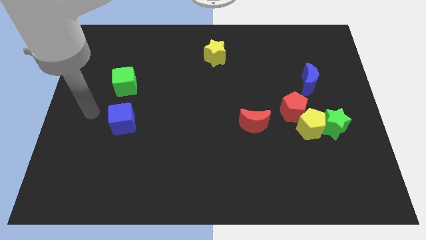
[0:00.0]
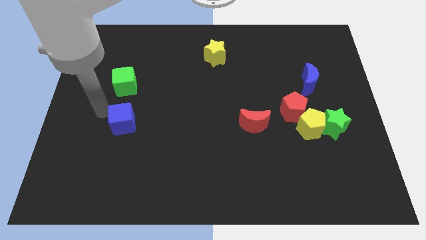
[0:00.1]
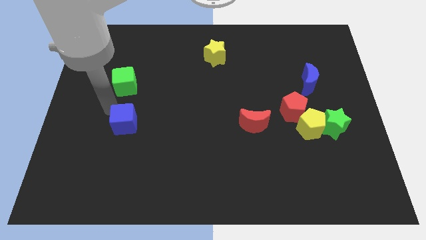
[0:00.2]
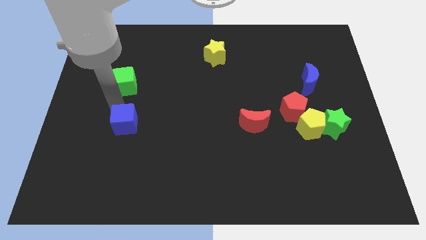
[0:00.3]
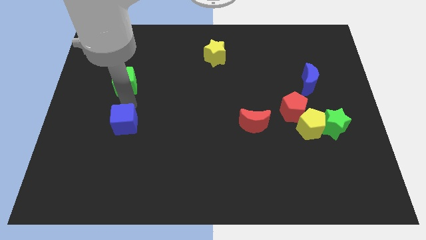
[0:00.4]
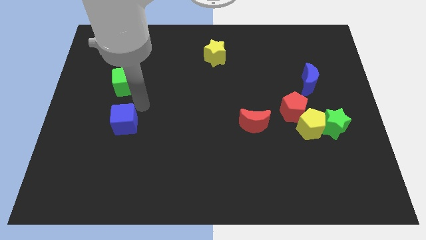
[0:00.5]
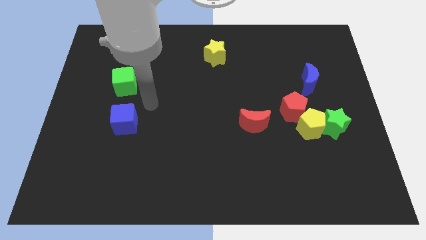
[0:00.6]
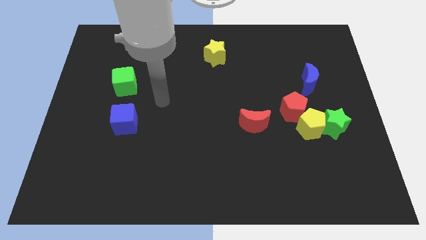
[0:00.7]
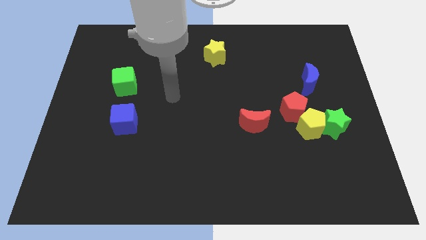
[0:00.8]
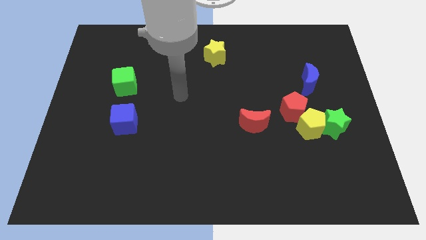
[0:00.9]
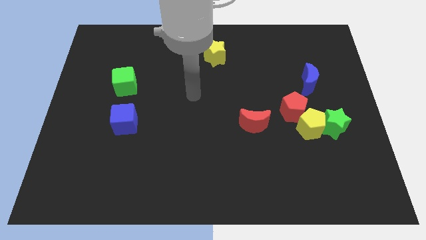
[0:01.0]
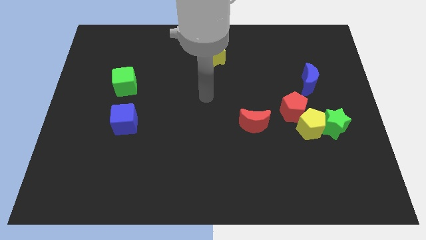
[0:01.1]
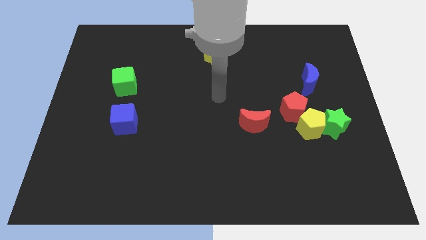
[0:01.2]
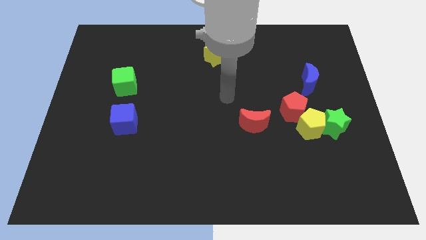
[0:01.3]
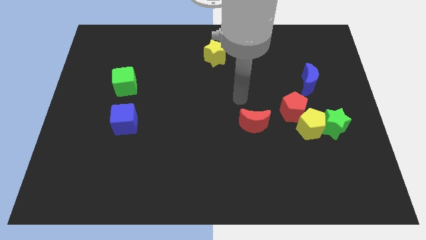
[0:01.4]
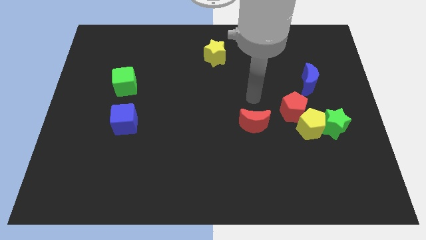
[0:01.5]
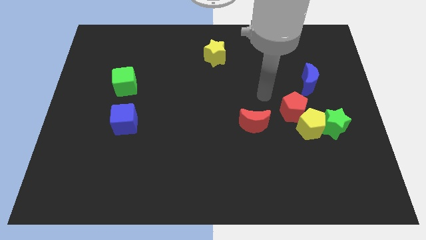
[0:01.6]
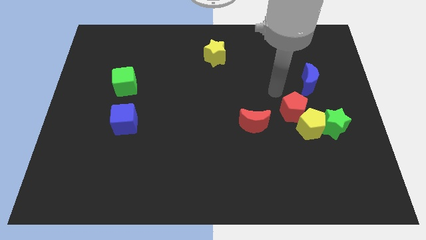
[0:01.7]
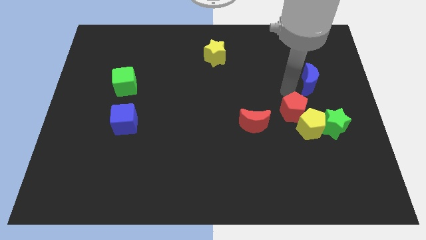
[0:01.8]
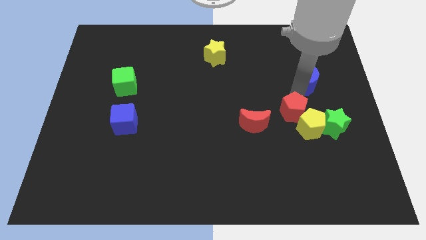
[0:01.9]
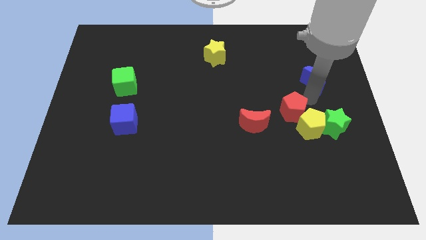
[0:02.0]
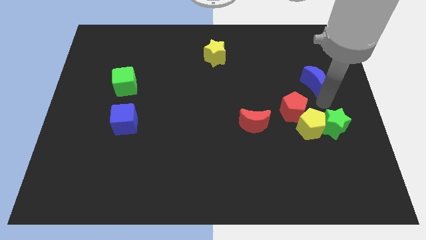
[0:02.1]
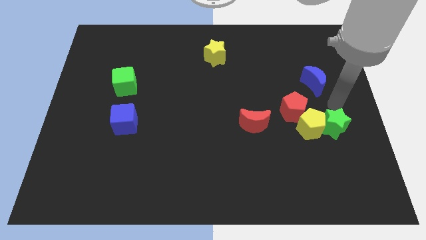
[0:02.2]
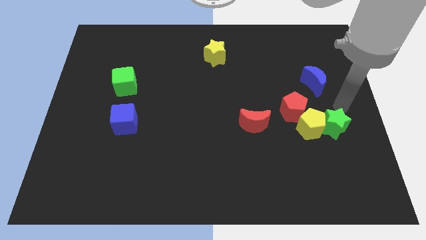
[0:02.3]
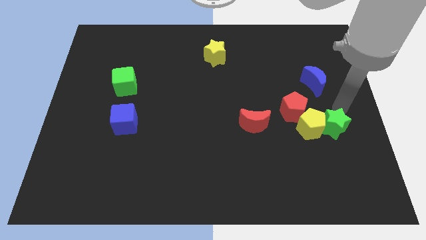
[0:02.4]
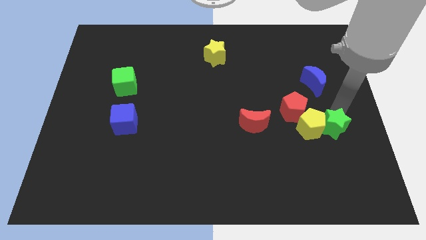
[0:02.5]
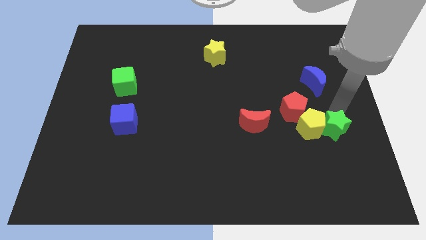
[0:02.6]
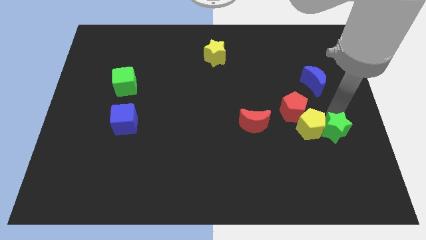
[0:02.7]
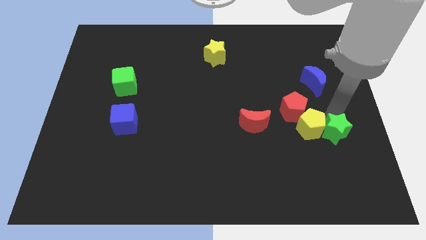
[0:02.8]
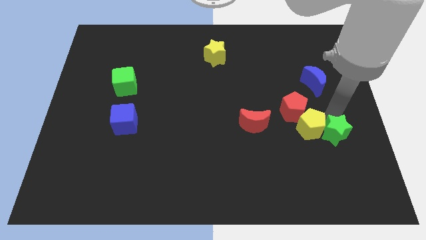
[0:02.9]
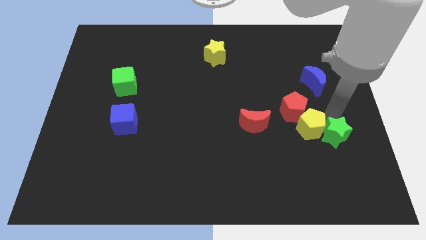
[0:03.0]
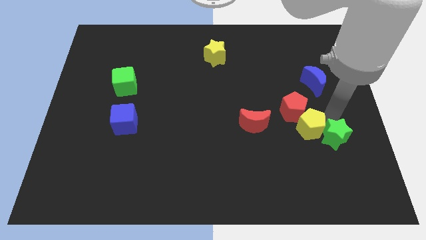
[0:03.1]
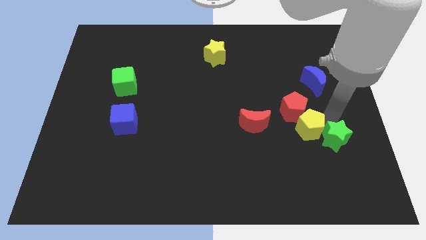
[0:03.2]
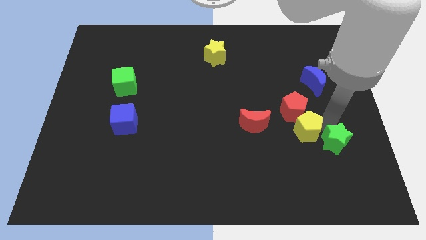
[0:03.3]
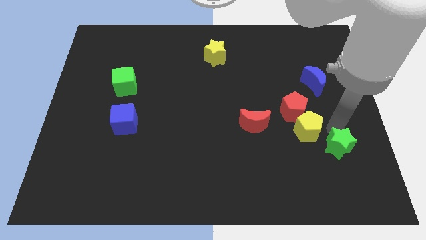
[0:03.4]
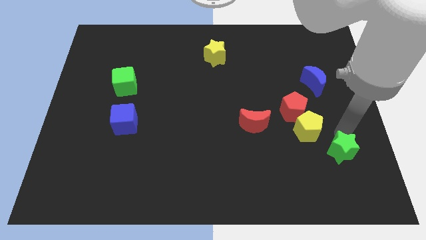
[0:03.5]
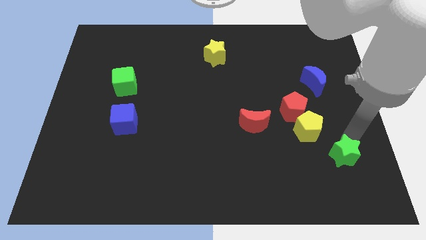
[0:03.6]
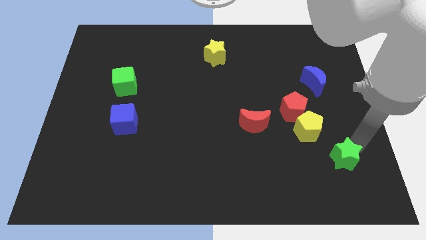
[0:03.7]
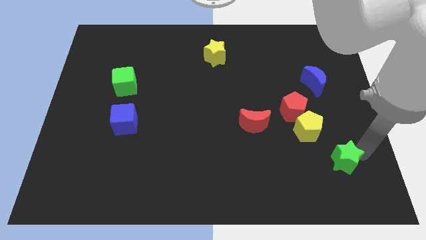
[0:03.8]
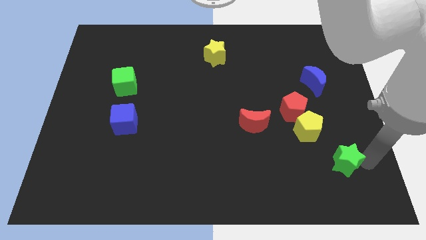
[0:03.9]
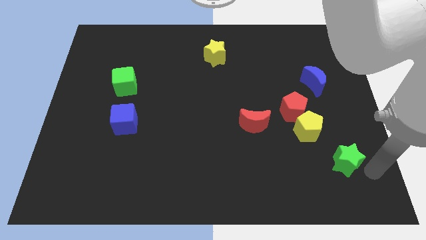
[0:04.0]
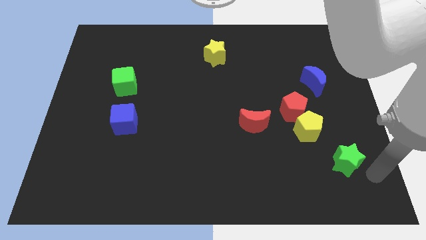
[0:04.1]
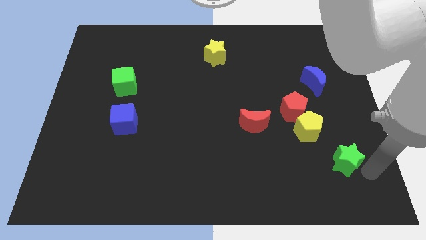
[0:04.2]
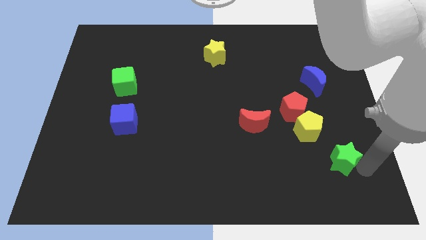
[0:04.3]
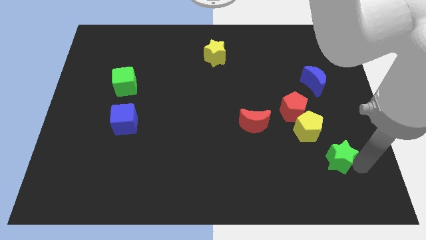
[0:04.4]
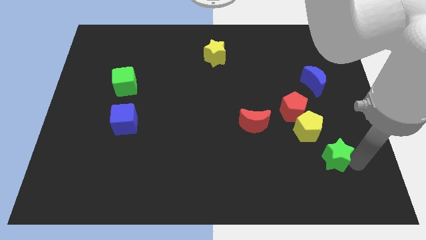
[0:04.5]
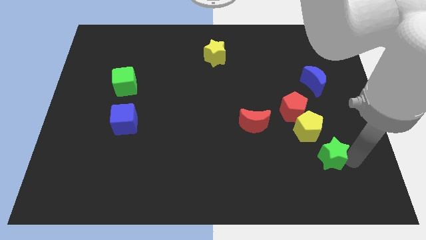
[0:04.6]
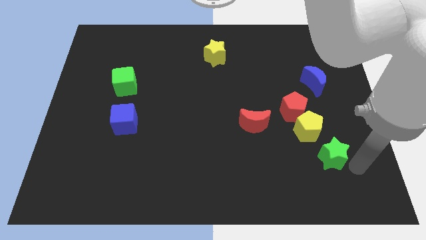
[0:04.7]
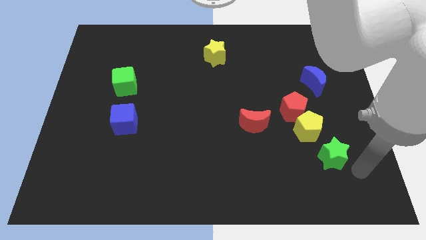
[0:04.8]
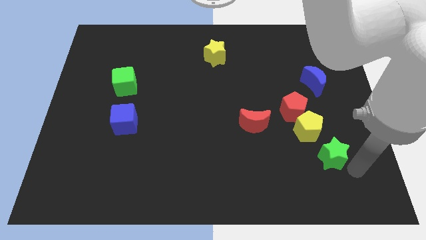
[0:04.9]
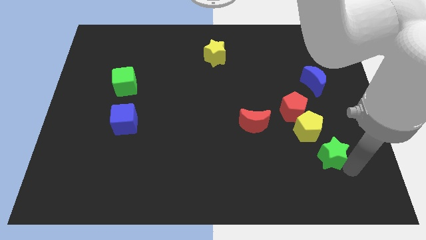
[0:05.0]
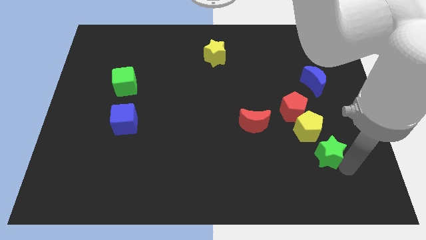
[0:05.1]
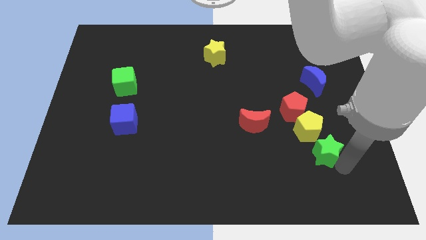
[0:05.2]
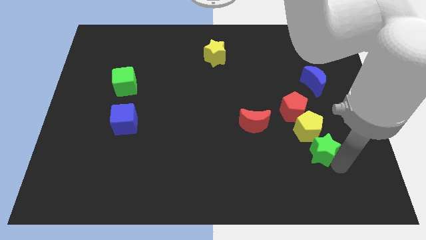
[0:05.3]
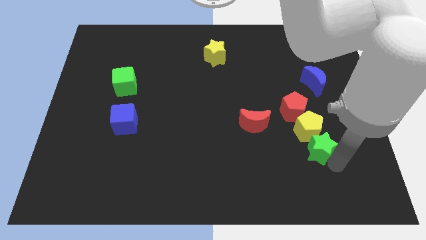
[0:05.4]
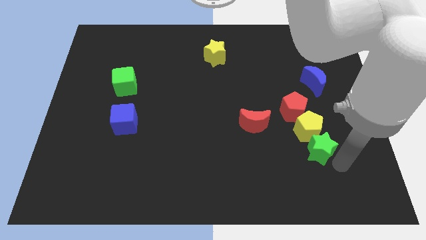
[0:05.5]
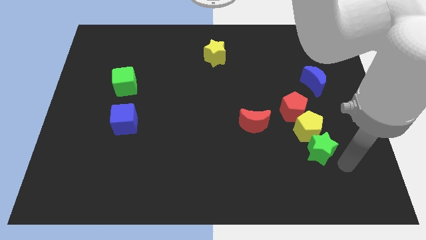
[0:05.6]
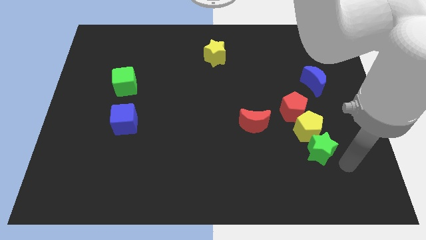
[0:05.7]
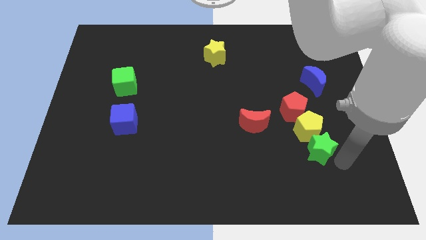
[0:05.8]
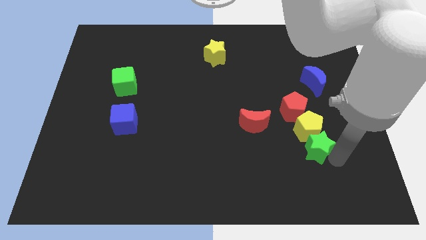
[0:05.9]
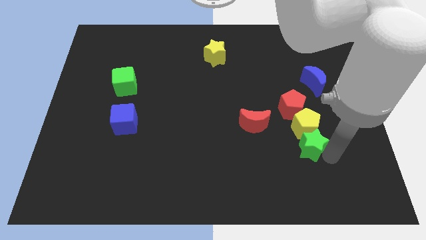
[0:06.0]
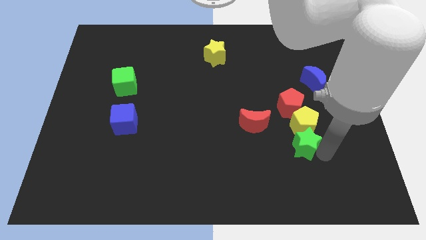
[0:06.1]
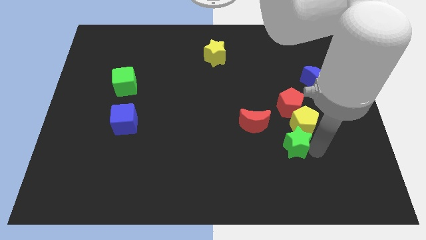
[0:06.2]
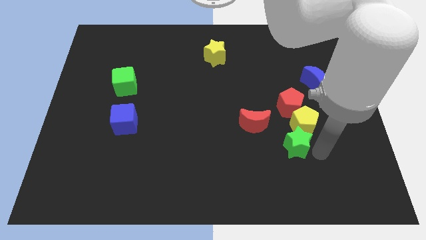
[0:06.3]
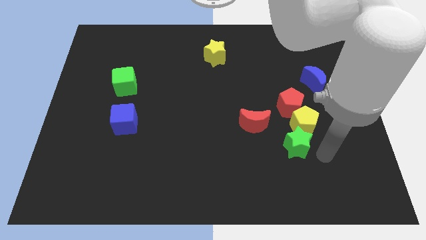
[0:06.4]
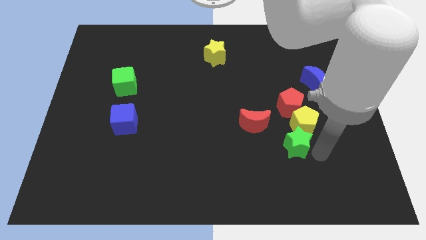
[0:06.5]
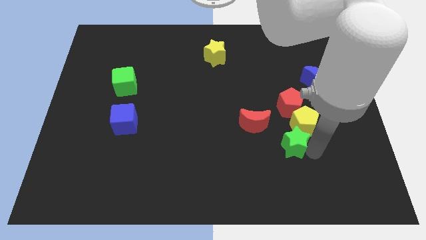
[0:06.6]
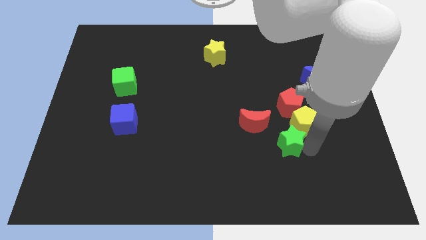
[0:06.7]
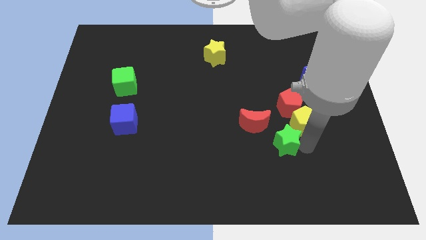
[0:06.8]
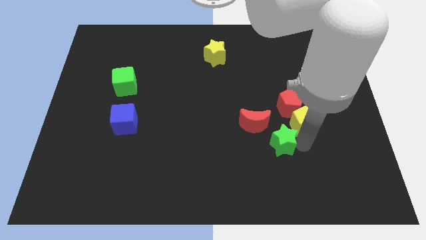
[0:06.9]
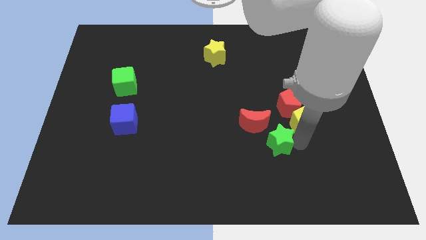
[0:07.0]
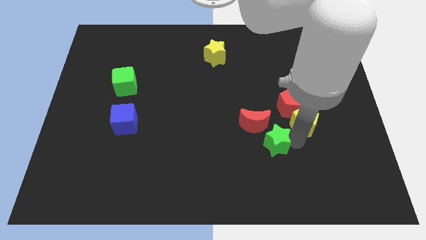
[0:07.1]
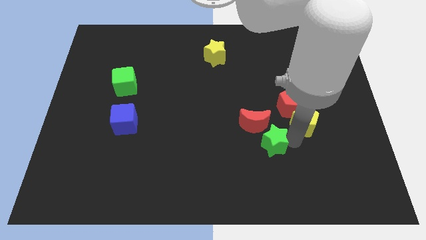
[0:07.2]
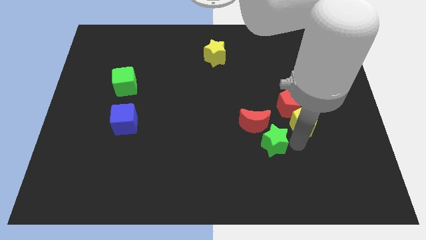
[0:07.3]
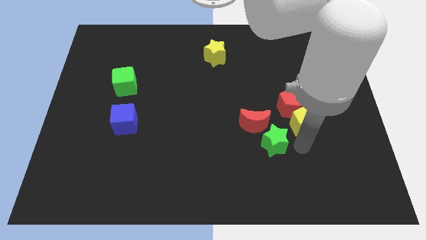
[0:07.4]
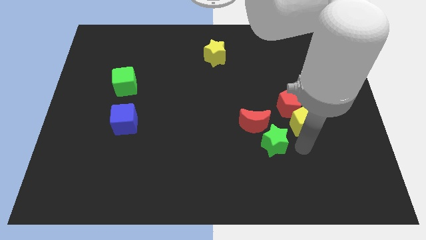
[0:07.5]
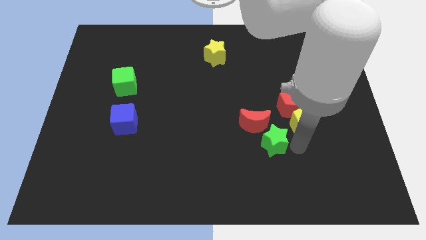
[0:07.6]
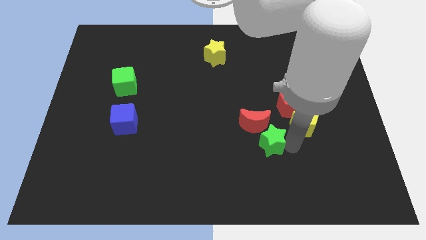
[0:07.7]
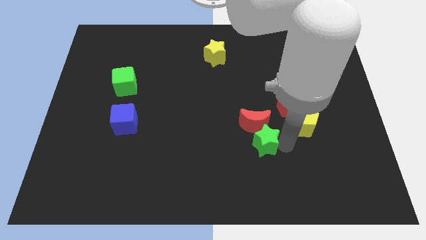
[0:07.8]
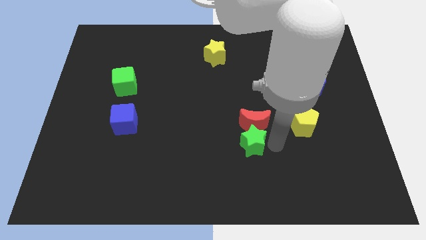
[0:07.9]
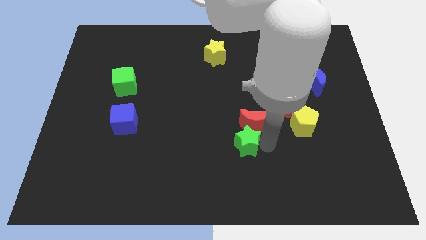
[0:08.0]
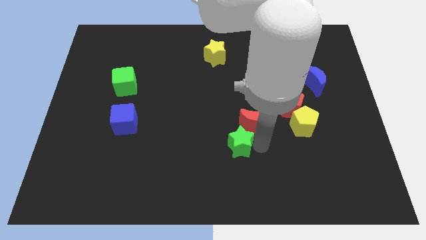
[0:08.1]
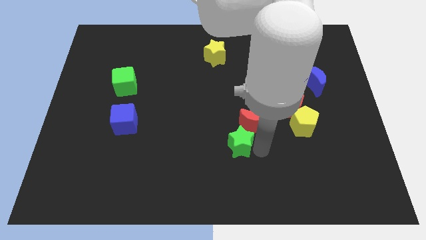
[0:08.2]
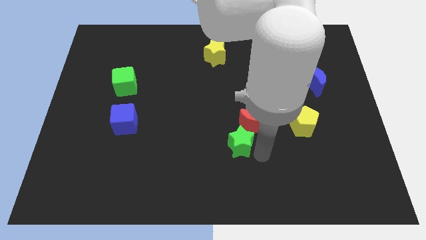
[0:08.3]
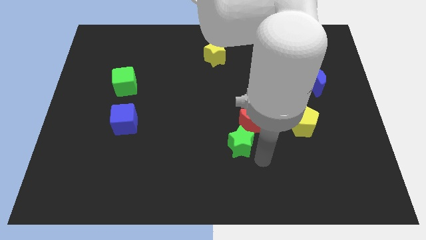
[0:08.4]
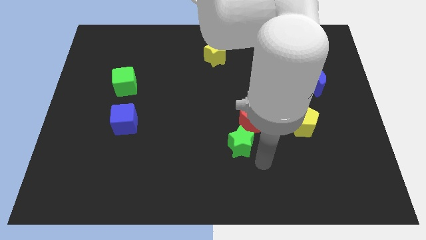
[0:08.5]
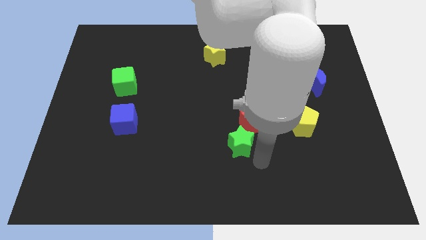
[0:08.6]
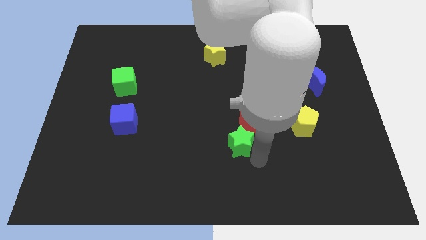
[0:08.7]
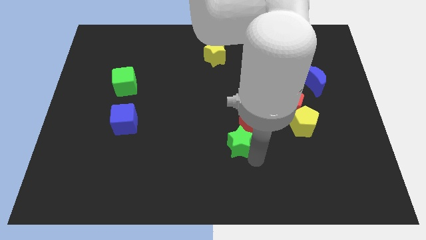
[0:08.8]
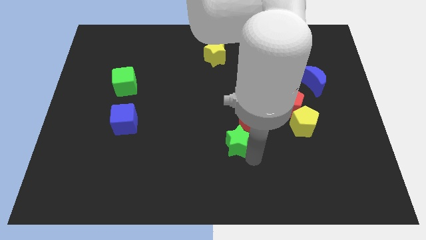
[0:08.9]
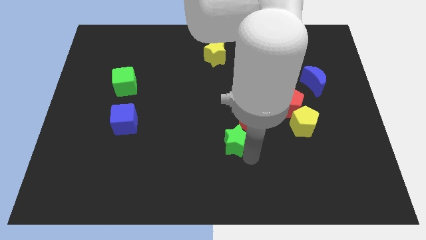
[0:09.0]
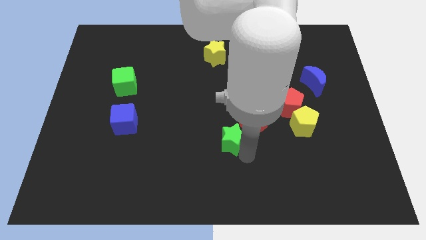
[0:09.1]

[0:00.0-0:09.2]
push the green star just left of the red moon
